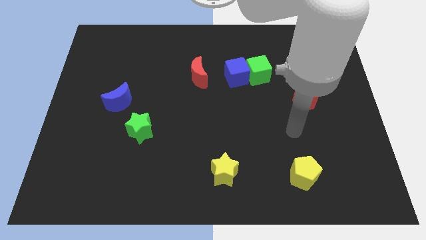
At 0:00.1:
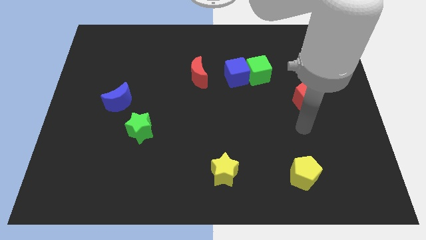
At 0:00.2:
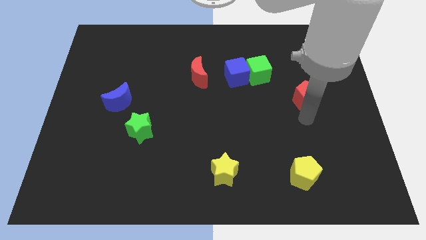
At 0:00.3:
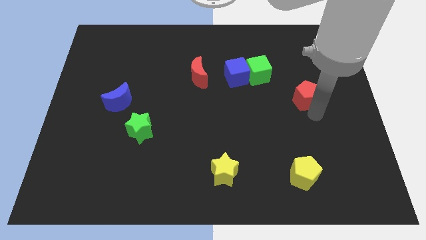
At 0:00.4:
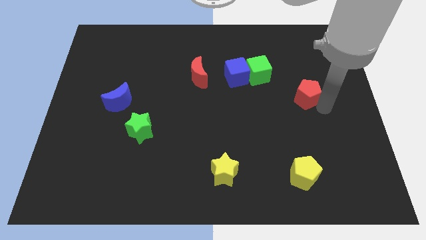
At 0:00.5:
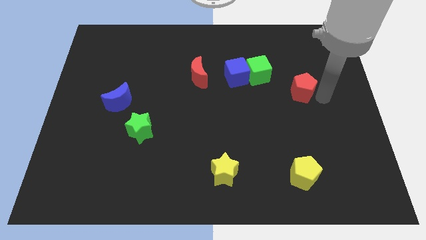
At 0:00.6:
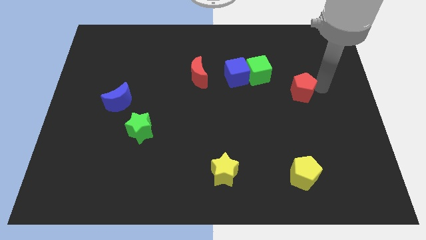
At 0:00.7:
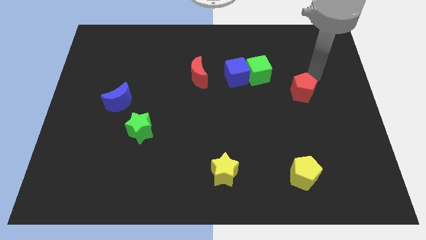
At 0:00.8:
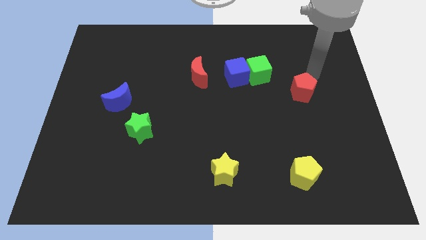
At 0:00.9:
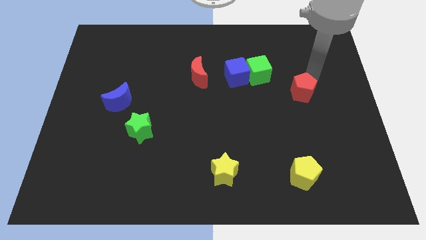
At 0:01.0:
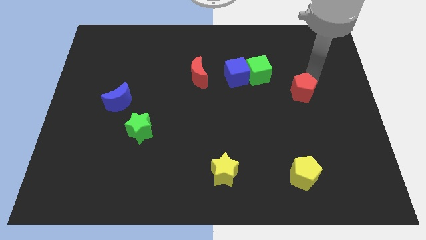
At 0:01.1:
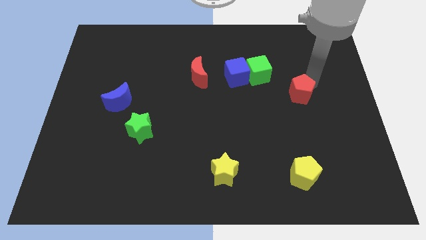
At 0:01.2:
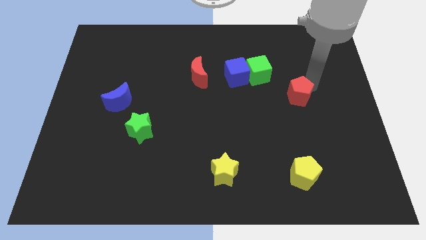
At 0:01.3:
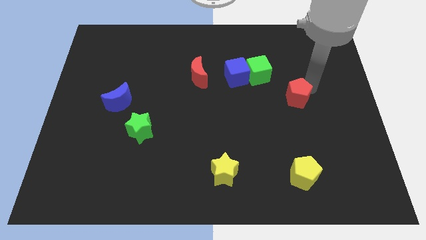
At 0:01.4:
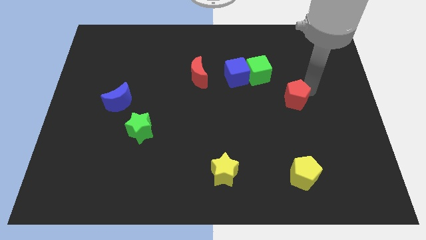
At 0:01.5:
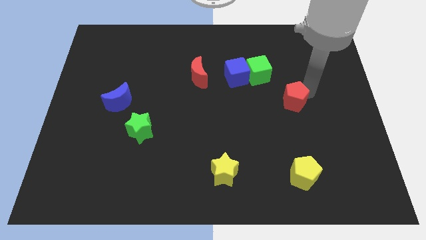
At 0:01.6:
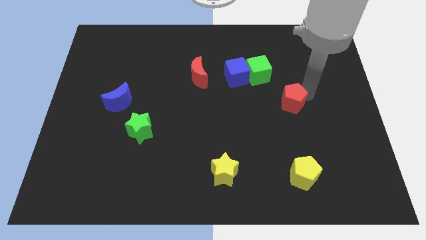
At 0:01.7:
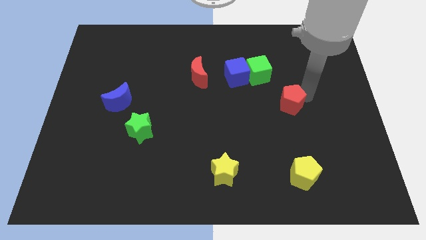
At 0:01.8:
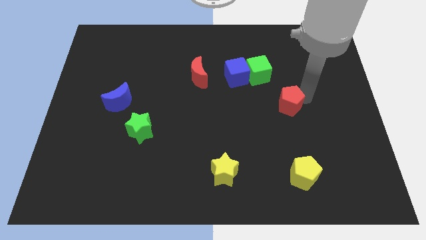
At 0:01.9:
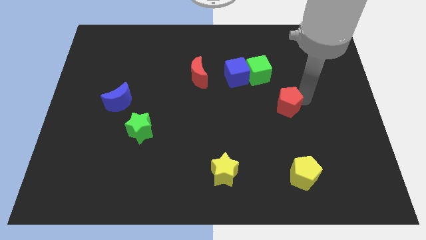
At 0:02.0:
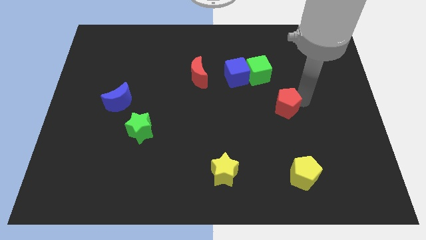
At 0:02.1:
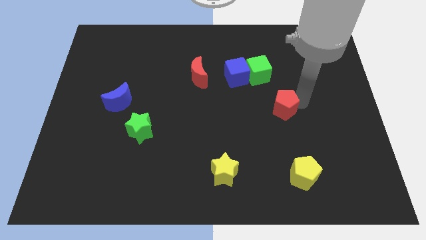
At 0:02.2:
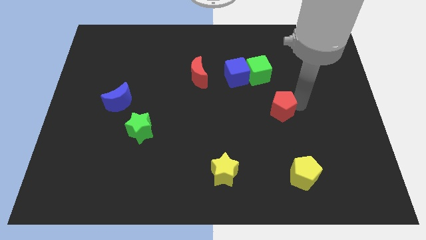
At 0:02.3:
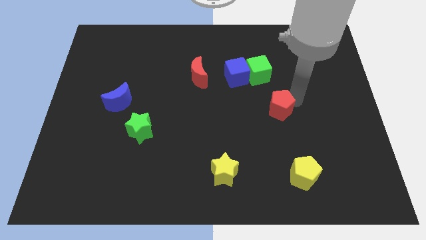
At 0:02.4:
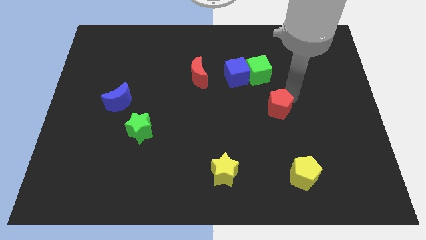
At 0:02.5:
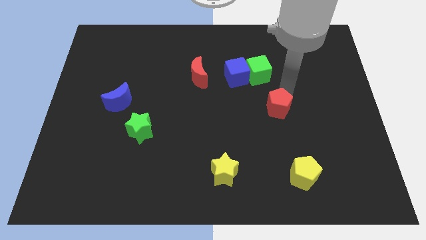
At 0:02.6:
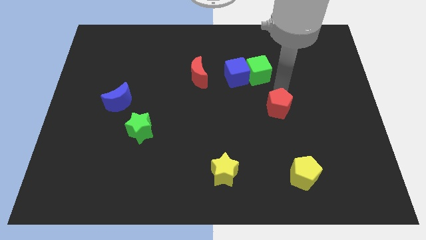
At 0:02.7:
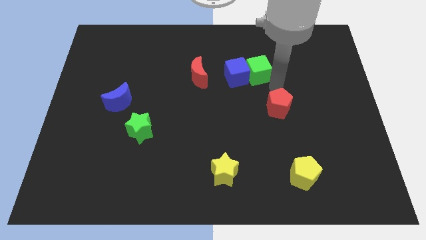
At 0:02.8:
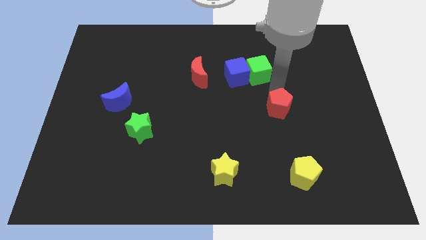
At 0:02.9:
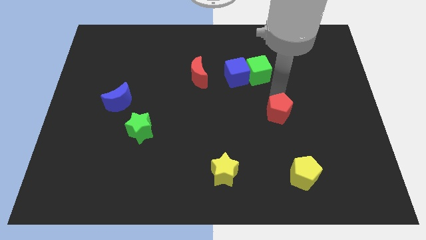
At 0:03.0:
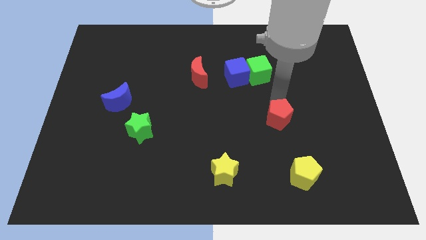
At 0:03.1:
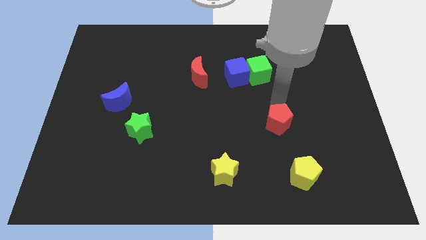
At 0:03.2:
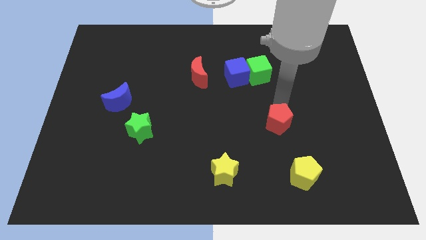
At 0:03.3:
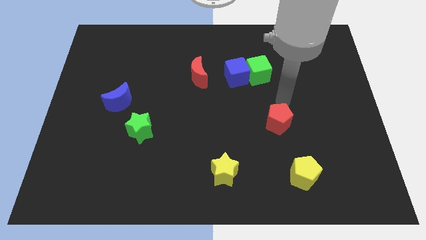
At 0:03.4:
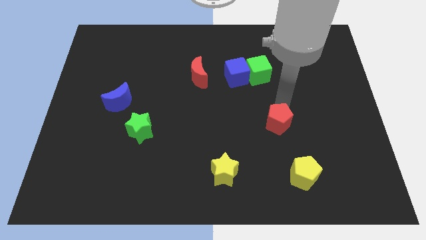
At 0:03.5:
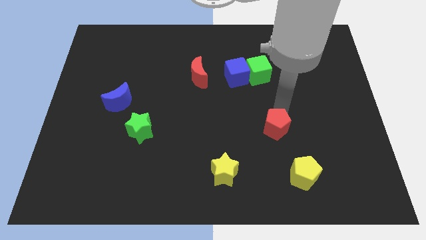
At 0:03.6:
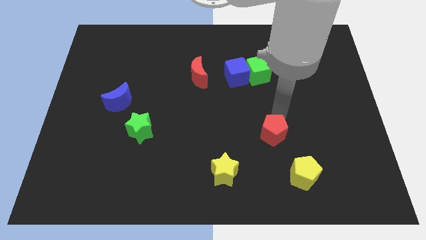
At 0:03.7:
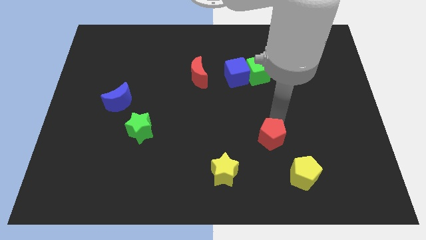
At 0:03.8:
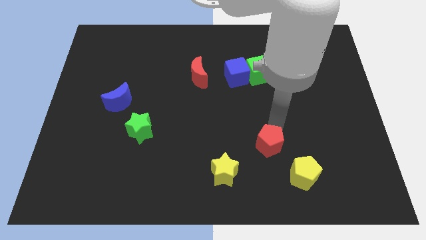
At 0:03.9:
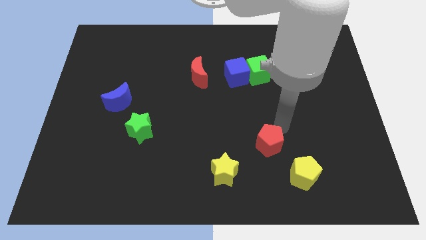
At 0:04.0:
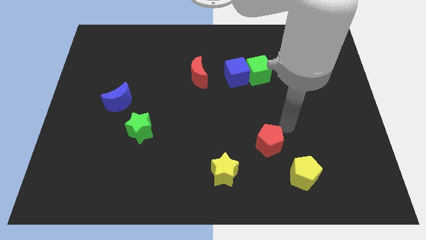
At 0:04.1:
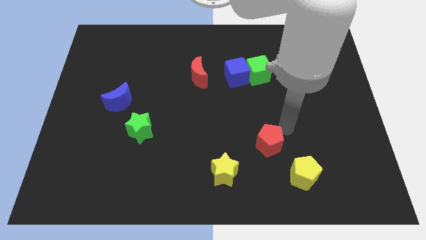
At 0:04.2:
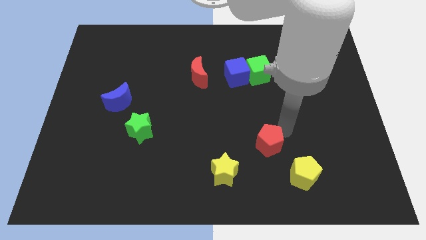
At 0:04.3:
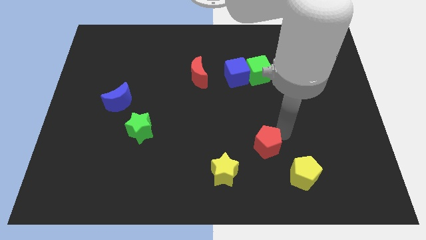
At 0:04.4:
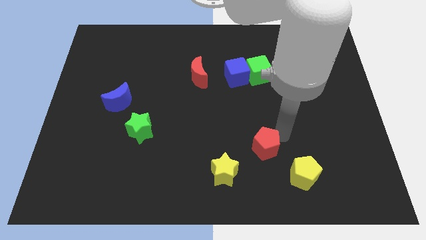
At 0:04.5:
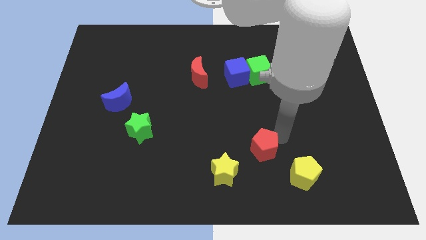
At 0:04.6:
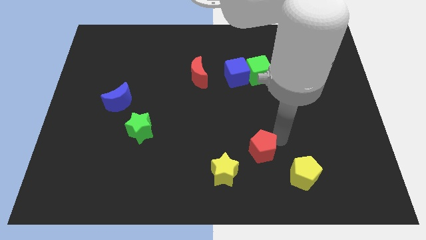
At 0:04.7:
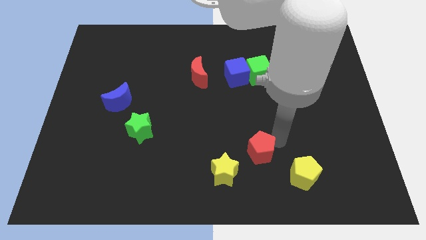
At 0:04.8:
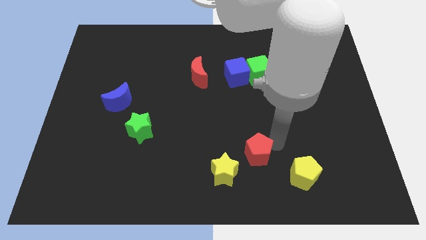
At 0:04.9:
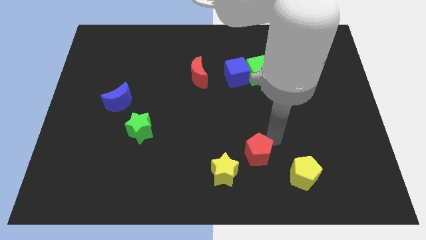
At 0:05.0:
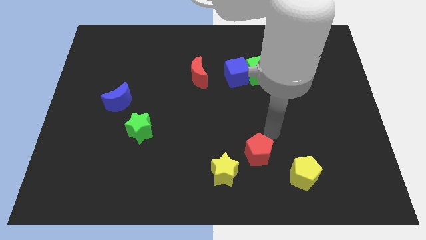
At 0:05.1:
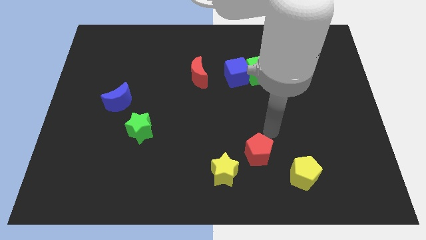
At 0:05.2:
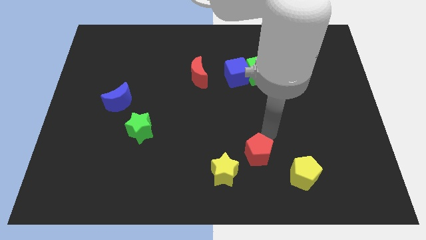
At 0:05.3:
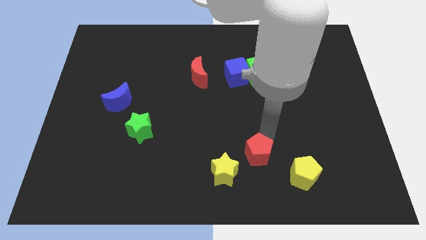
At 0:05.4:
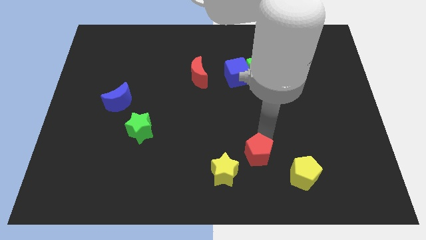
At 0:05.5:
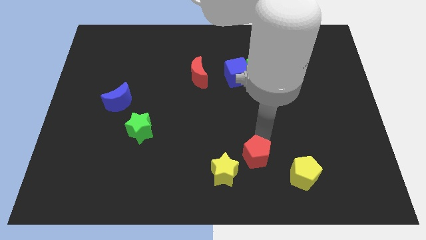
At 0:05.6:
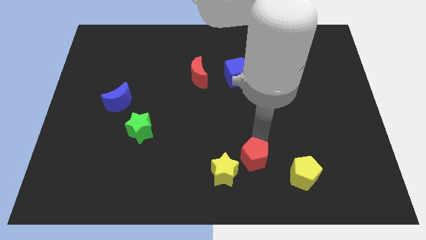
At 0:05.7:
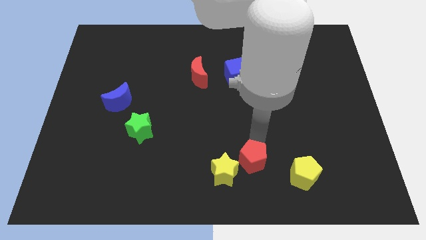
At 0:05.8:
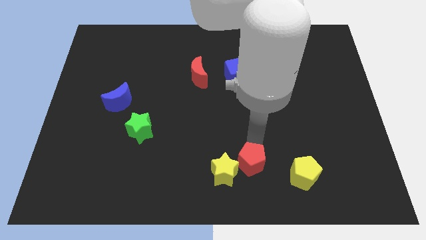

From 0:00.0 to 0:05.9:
slide the red pentagon to the bottom side
